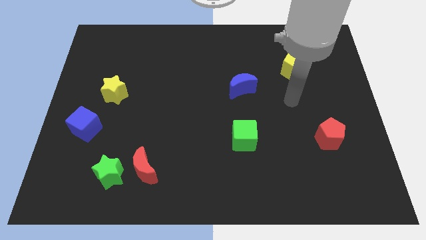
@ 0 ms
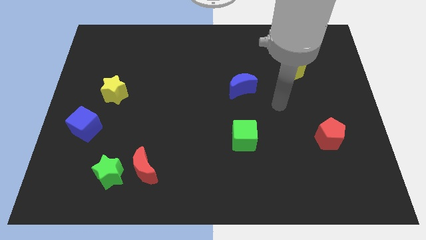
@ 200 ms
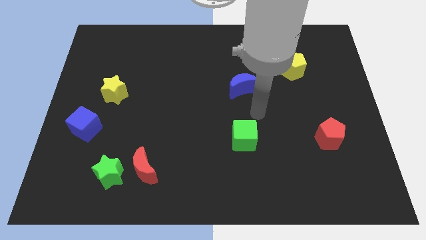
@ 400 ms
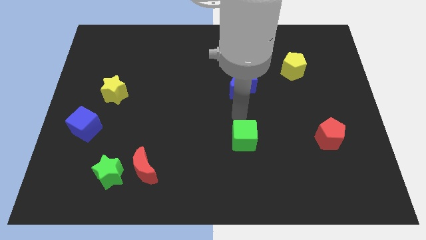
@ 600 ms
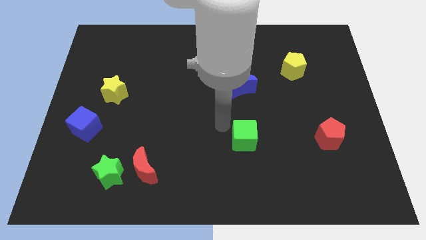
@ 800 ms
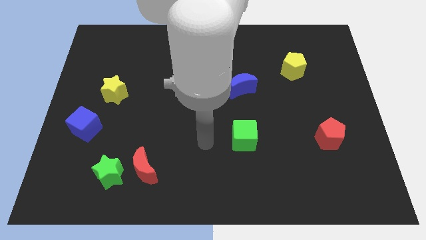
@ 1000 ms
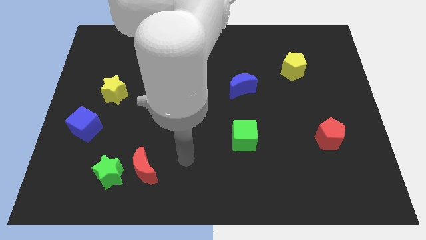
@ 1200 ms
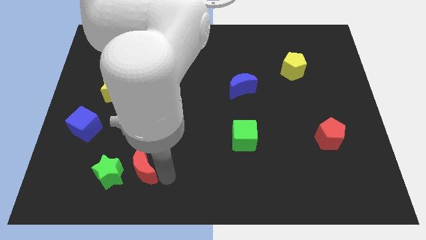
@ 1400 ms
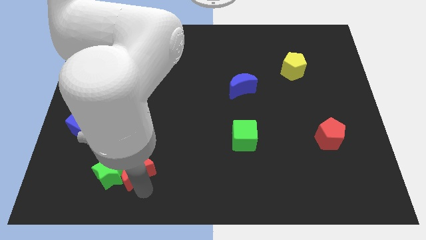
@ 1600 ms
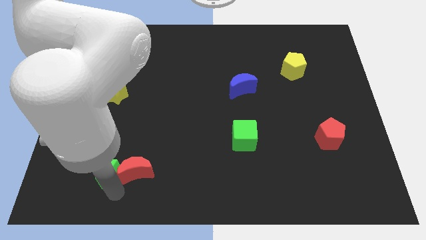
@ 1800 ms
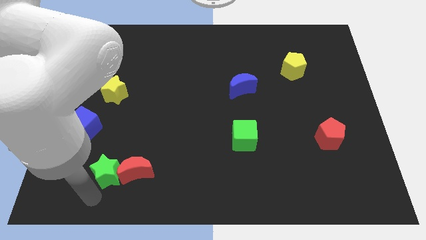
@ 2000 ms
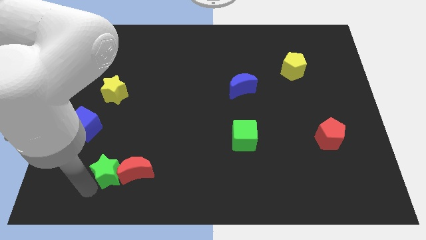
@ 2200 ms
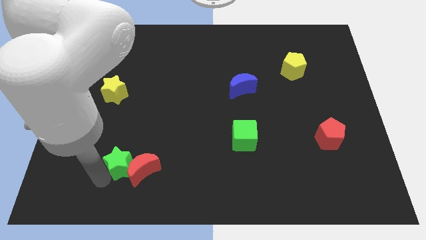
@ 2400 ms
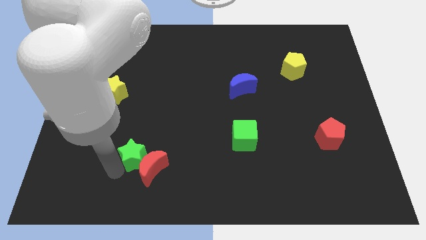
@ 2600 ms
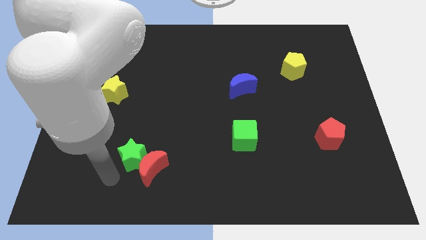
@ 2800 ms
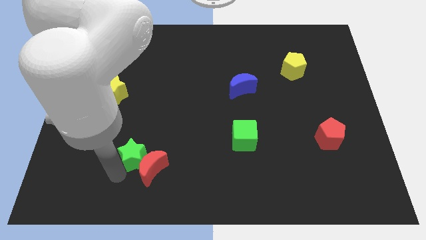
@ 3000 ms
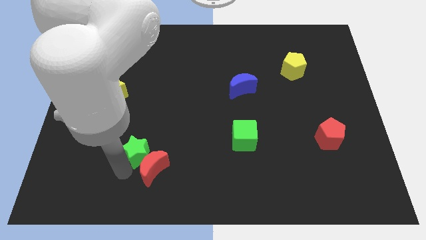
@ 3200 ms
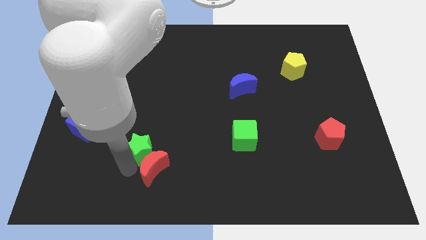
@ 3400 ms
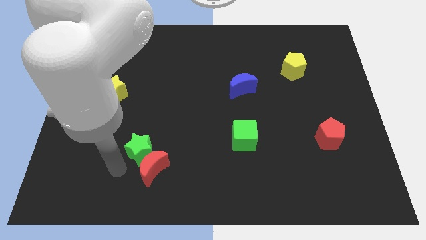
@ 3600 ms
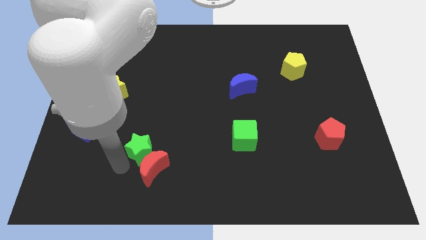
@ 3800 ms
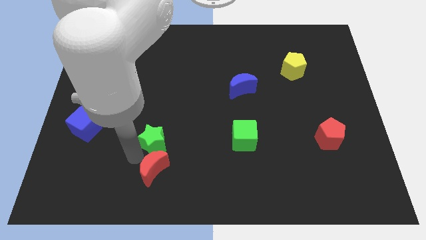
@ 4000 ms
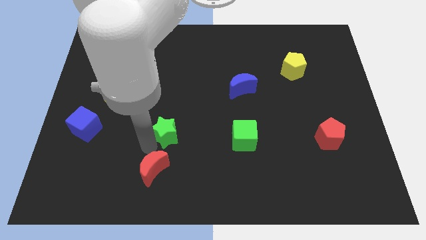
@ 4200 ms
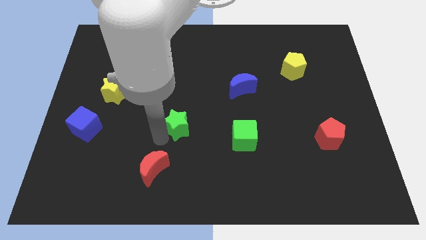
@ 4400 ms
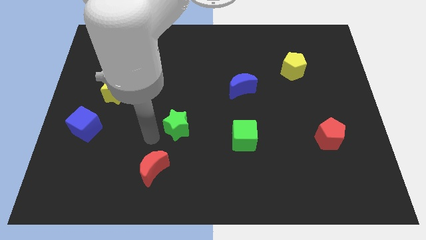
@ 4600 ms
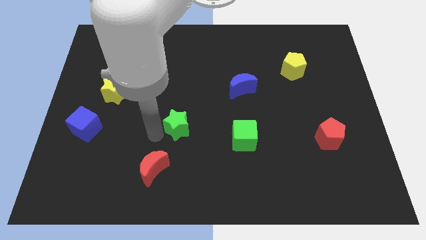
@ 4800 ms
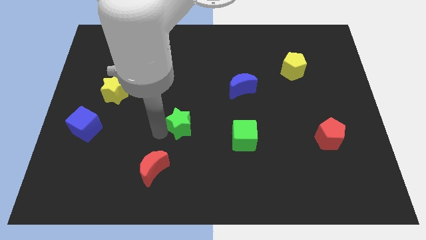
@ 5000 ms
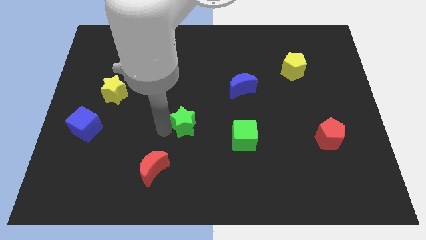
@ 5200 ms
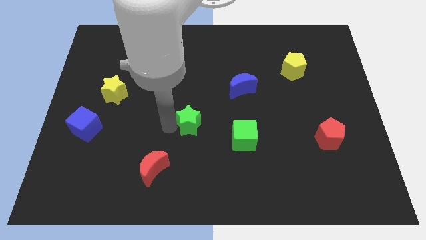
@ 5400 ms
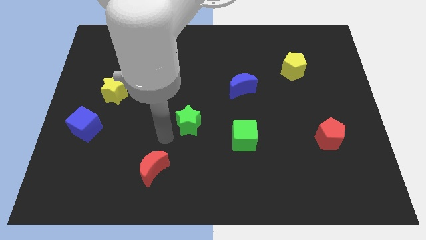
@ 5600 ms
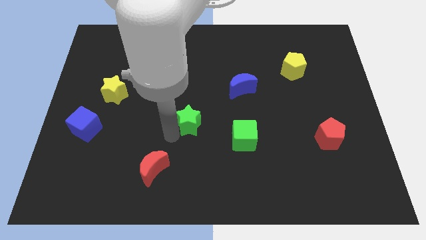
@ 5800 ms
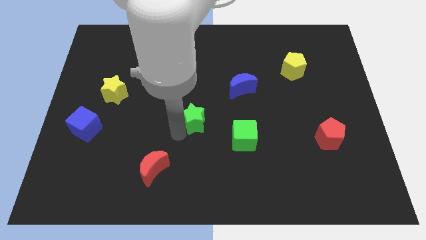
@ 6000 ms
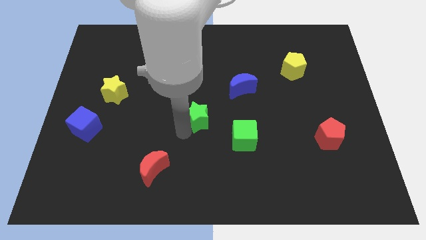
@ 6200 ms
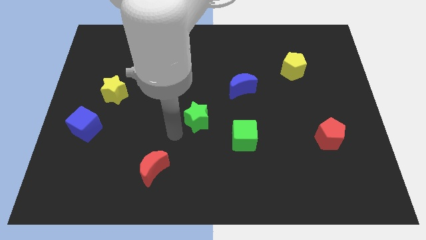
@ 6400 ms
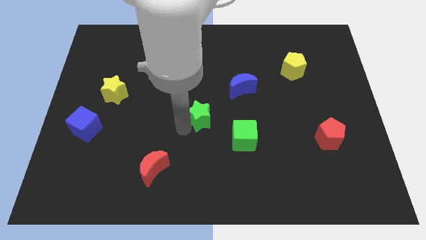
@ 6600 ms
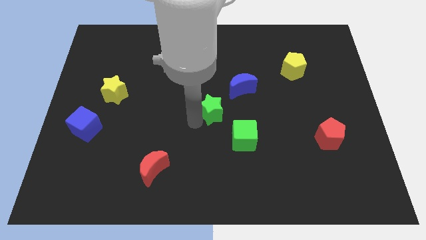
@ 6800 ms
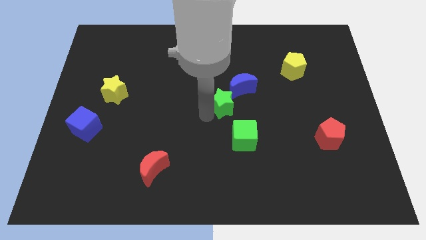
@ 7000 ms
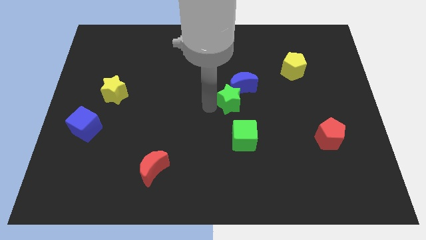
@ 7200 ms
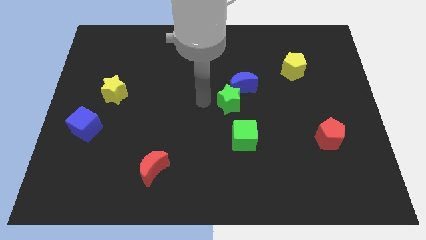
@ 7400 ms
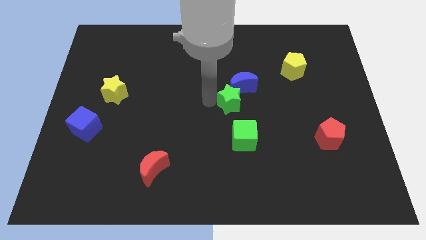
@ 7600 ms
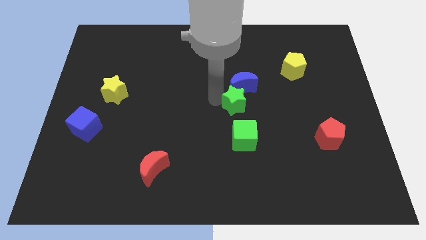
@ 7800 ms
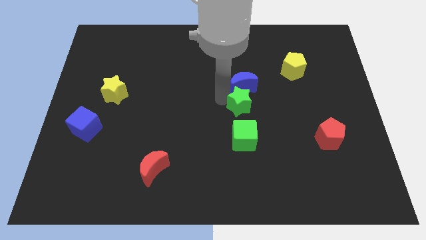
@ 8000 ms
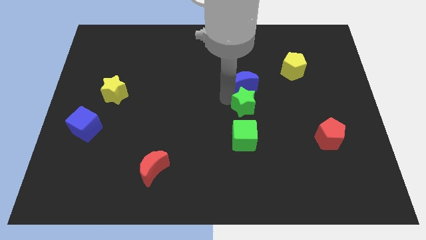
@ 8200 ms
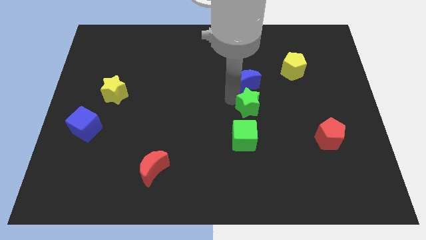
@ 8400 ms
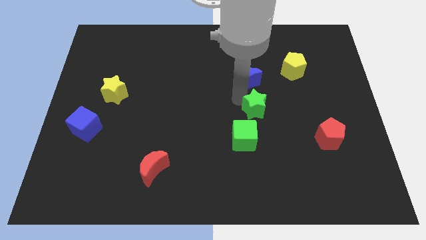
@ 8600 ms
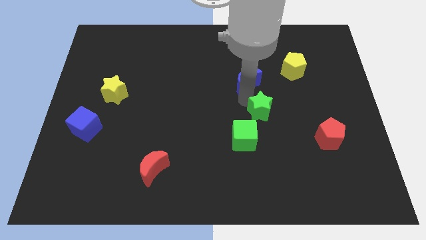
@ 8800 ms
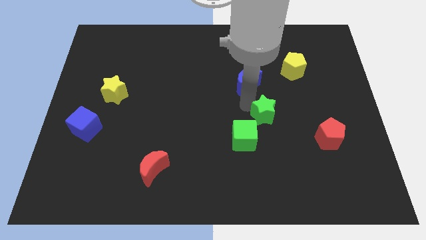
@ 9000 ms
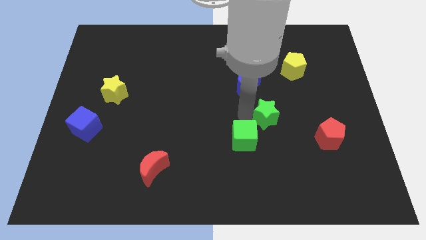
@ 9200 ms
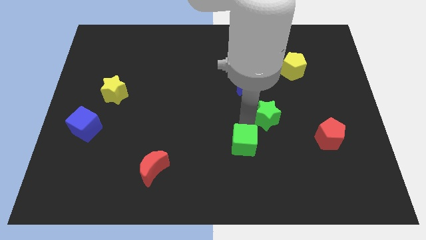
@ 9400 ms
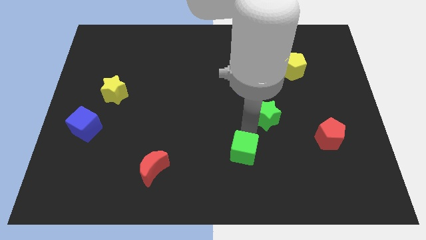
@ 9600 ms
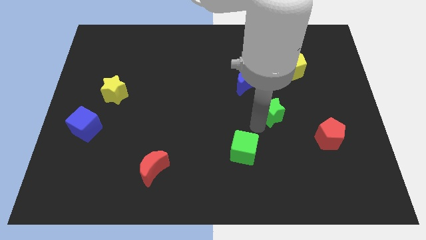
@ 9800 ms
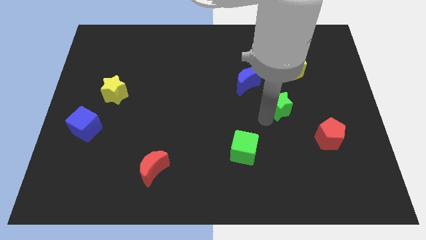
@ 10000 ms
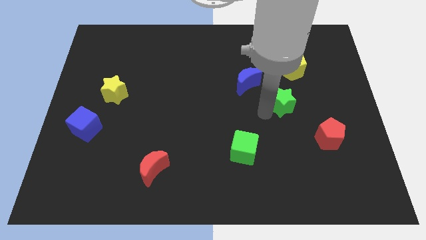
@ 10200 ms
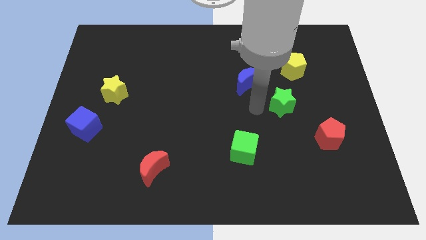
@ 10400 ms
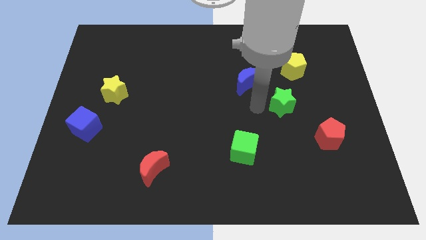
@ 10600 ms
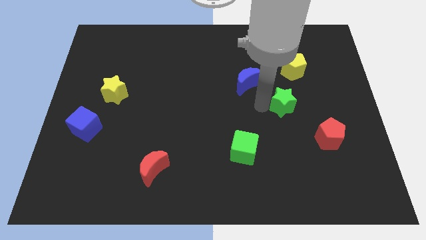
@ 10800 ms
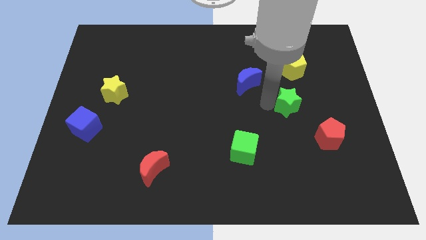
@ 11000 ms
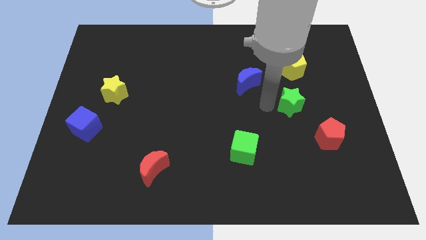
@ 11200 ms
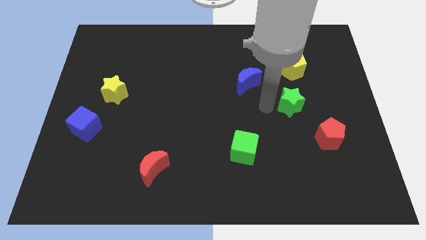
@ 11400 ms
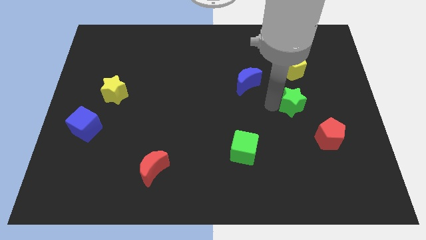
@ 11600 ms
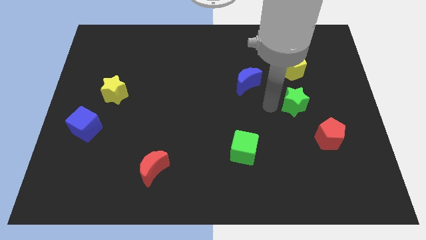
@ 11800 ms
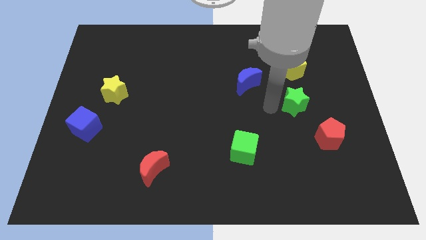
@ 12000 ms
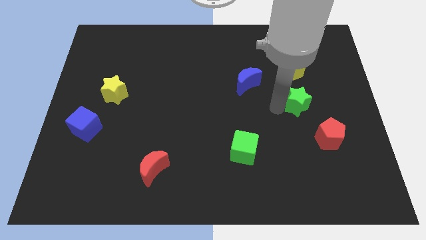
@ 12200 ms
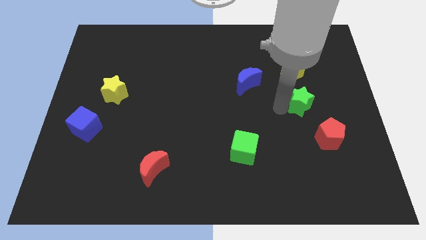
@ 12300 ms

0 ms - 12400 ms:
move the green star above the red pentagon

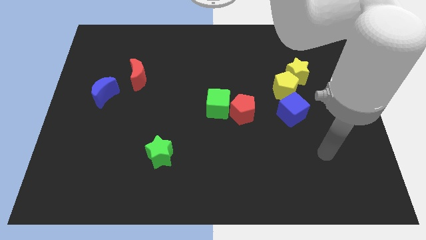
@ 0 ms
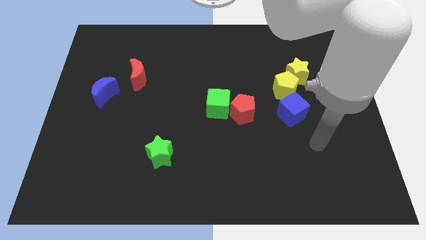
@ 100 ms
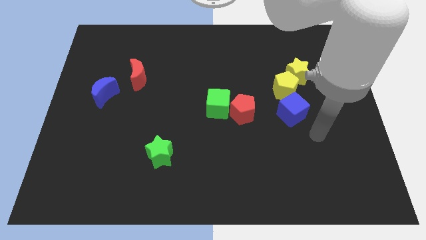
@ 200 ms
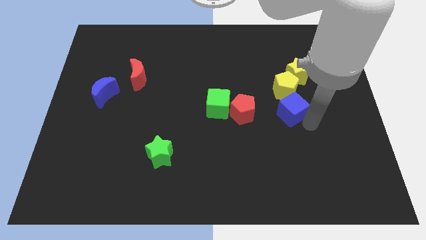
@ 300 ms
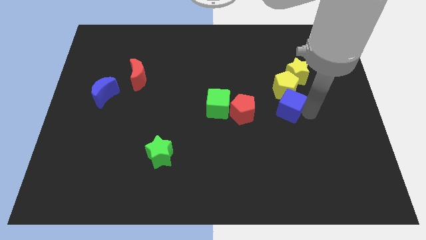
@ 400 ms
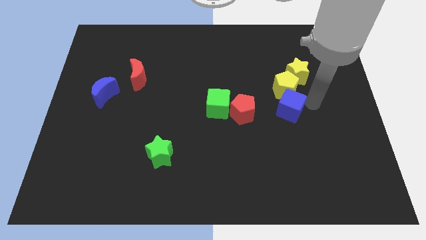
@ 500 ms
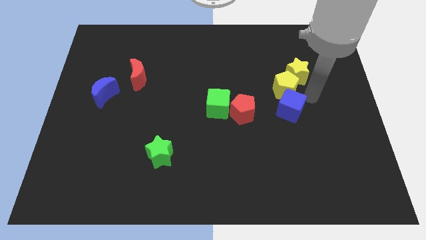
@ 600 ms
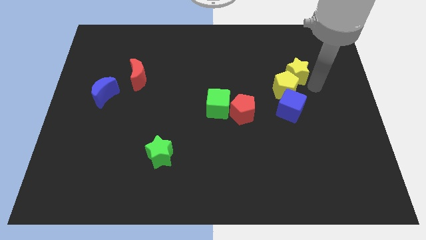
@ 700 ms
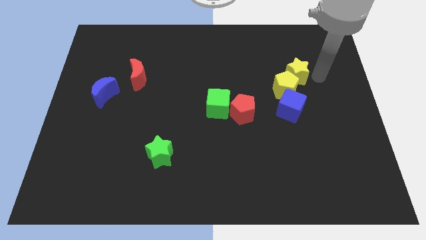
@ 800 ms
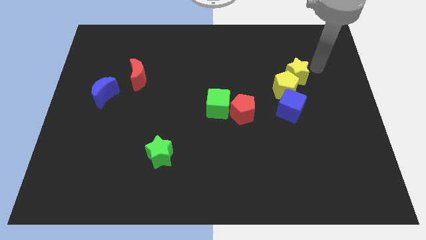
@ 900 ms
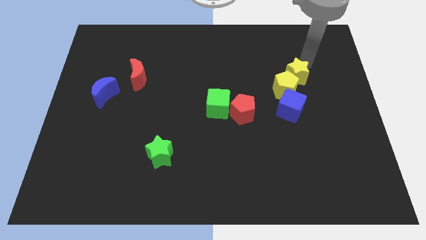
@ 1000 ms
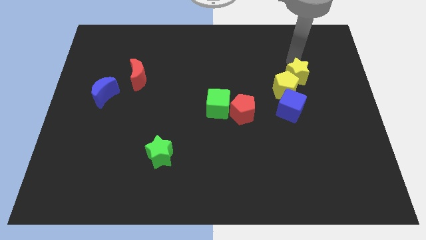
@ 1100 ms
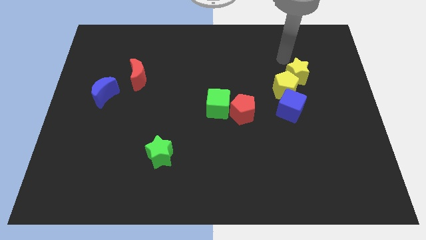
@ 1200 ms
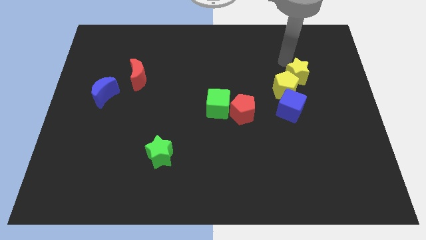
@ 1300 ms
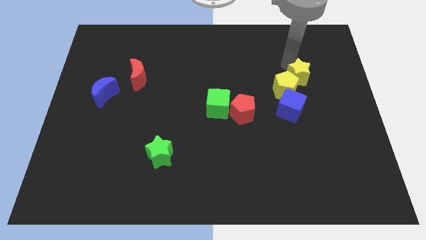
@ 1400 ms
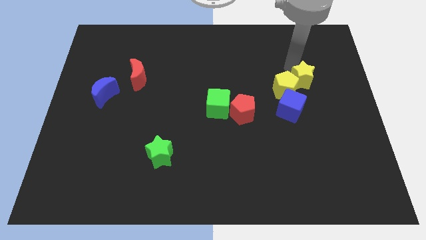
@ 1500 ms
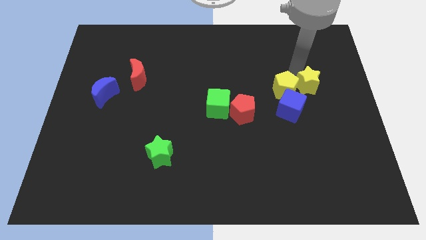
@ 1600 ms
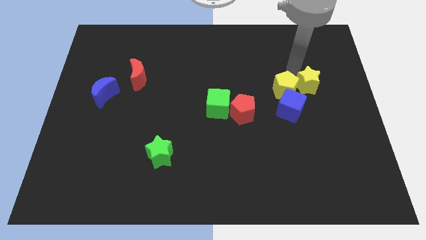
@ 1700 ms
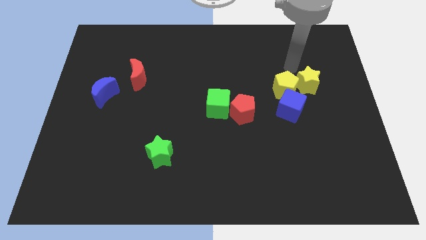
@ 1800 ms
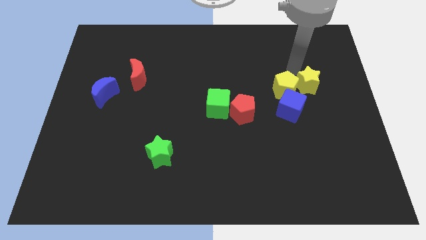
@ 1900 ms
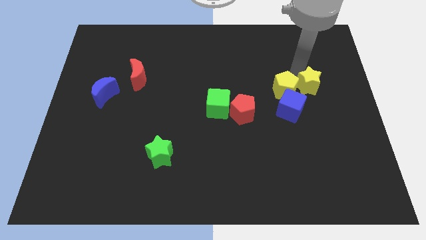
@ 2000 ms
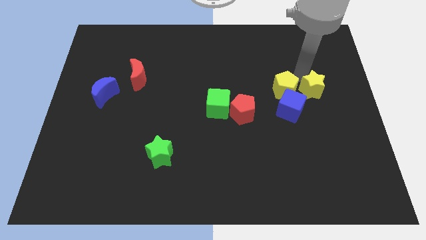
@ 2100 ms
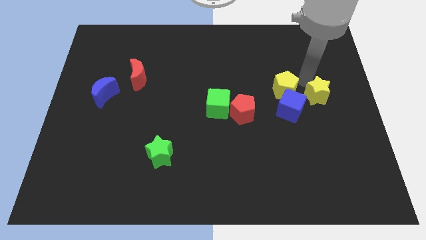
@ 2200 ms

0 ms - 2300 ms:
put the yellow star to the right side of the blue cube
